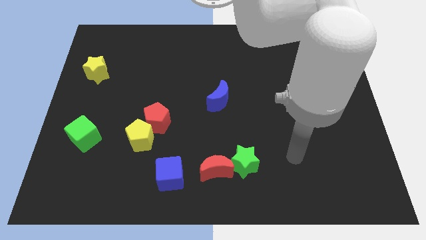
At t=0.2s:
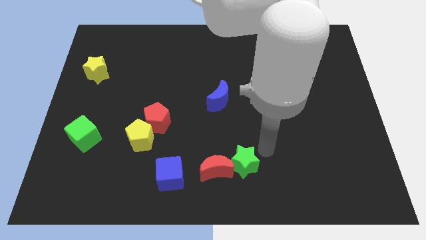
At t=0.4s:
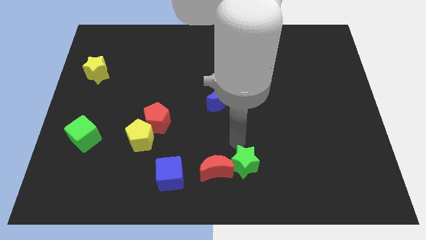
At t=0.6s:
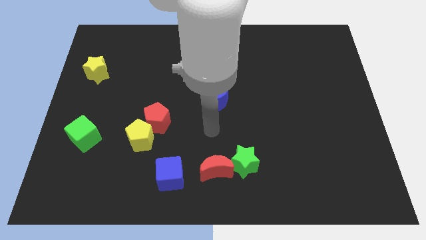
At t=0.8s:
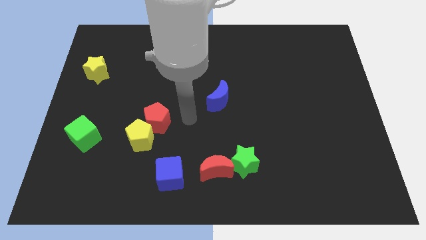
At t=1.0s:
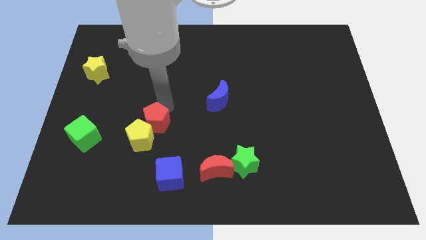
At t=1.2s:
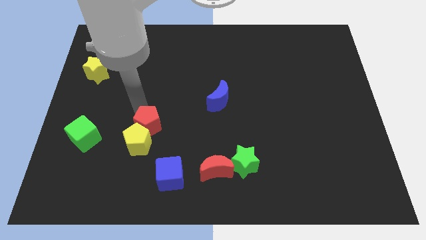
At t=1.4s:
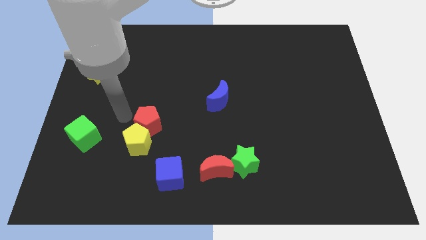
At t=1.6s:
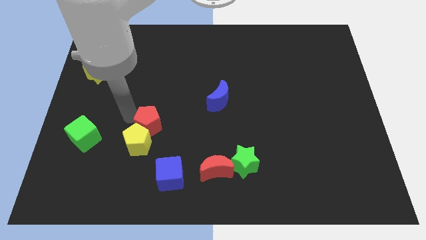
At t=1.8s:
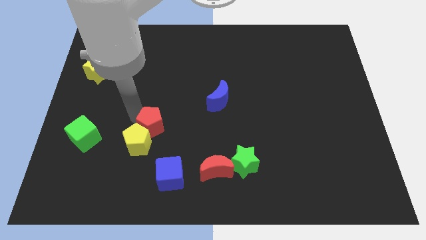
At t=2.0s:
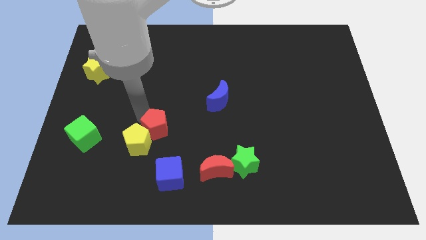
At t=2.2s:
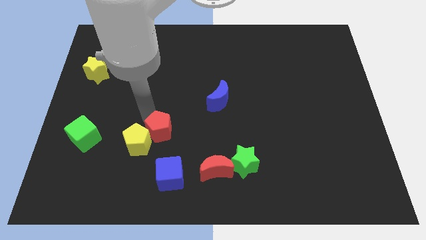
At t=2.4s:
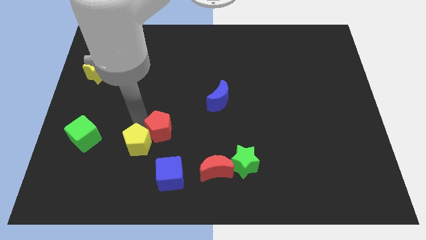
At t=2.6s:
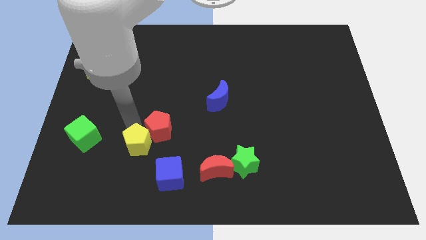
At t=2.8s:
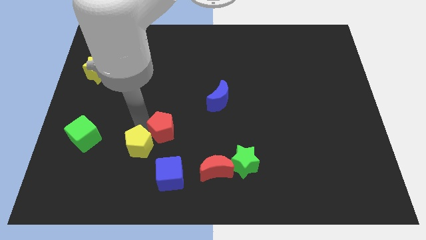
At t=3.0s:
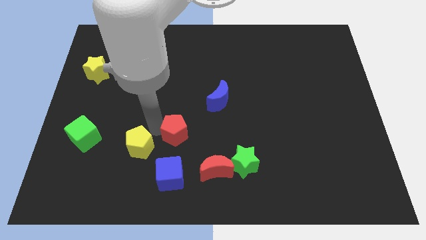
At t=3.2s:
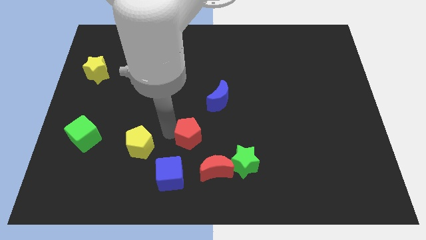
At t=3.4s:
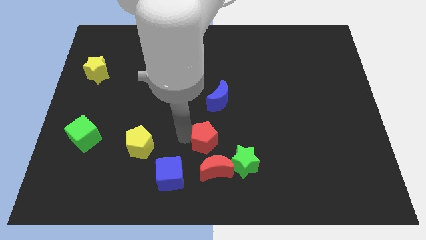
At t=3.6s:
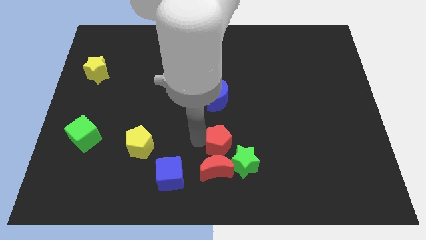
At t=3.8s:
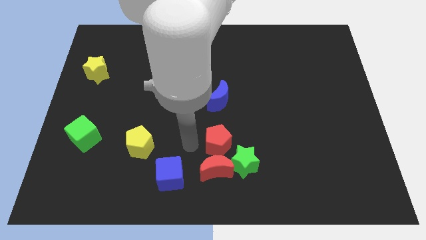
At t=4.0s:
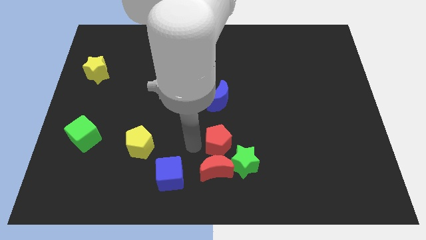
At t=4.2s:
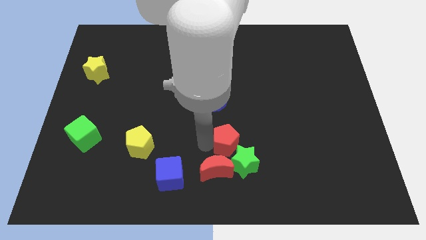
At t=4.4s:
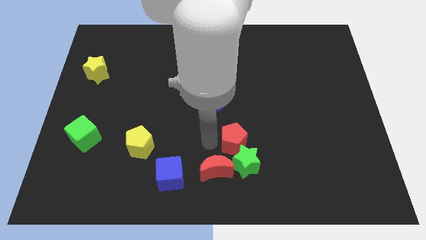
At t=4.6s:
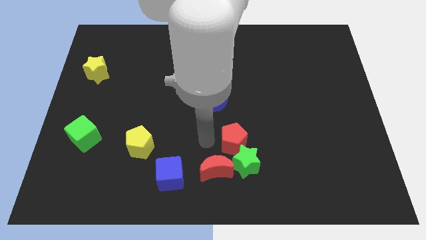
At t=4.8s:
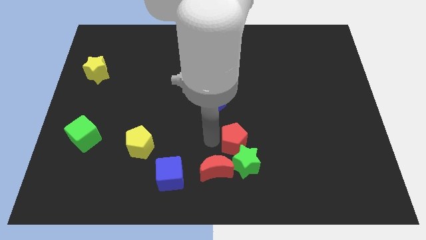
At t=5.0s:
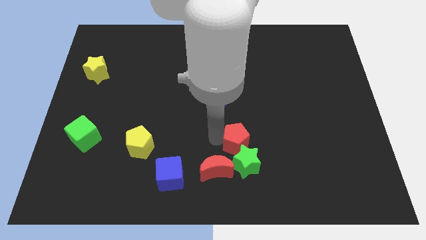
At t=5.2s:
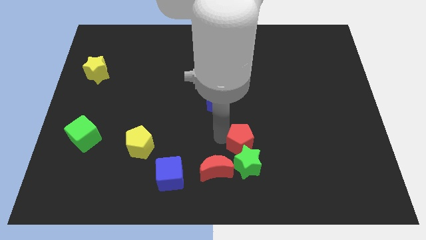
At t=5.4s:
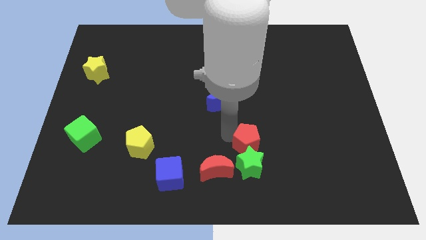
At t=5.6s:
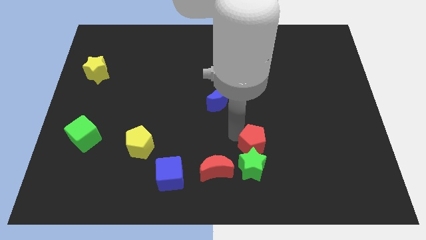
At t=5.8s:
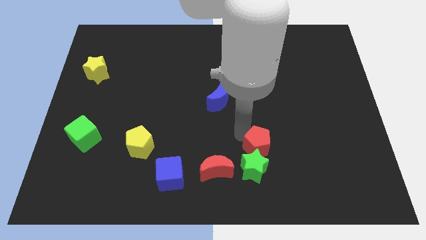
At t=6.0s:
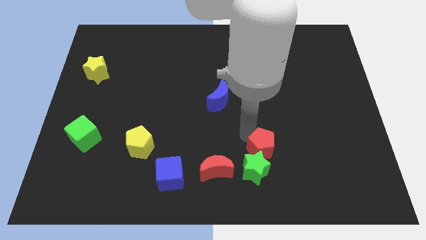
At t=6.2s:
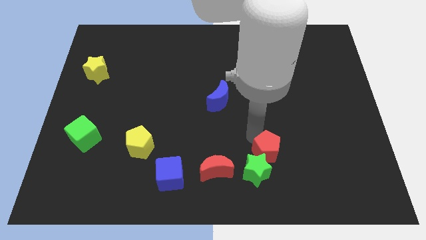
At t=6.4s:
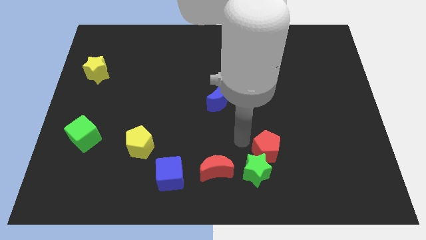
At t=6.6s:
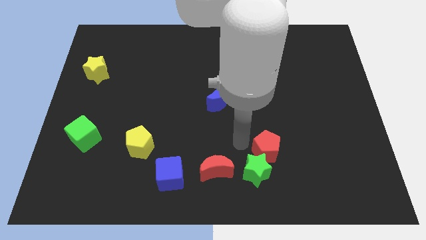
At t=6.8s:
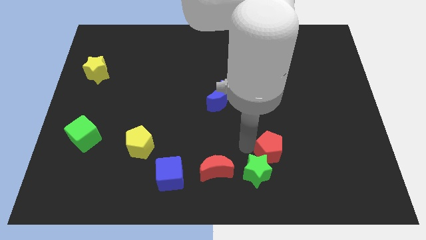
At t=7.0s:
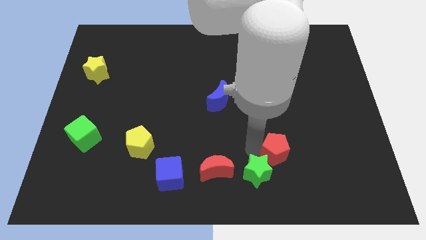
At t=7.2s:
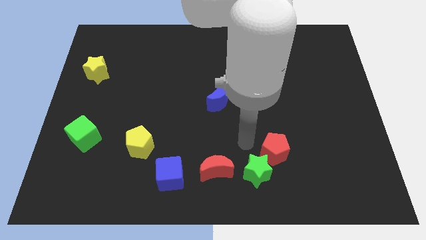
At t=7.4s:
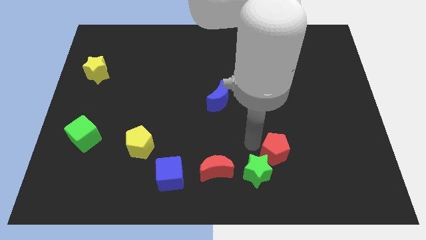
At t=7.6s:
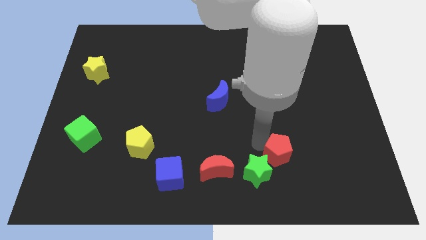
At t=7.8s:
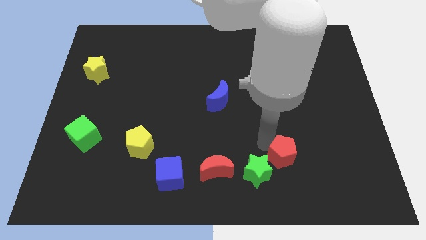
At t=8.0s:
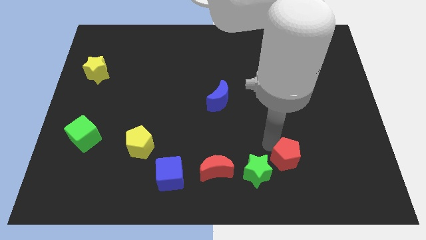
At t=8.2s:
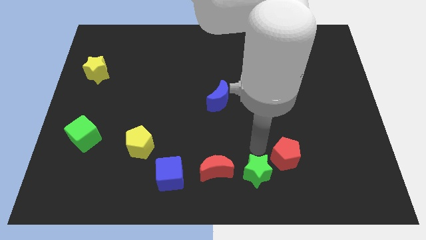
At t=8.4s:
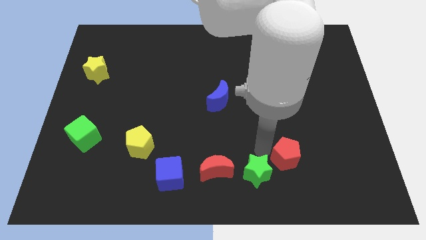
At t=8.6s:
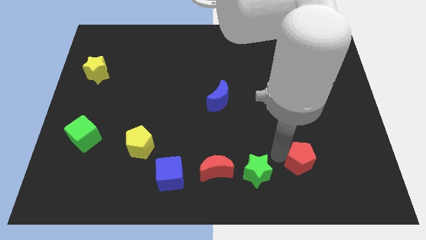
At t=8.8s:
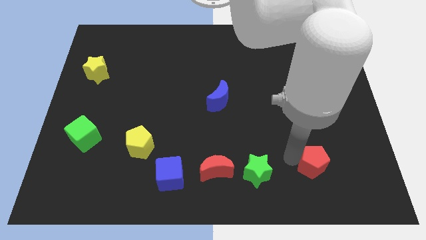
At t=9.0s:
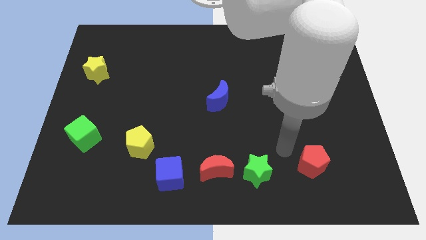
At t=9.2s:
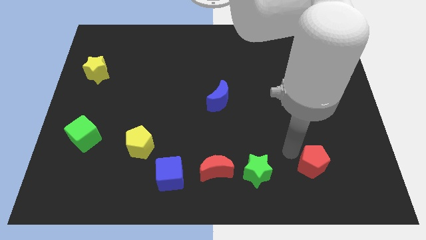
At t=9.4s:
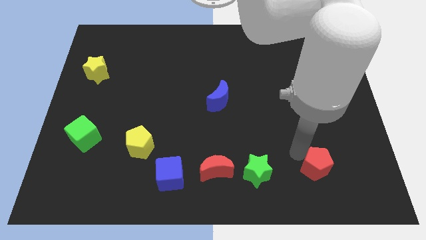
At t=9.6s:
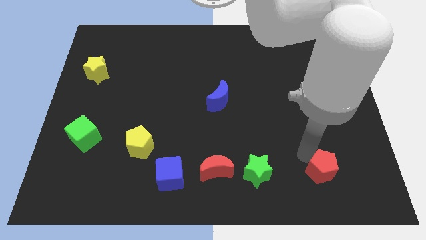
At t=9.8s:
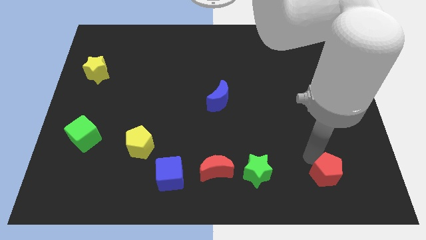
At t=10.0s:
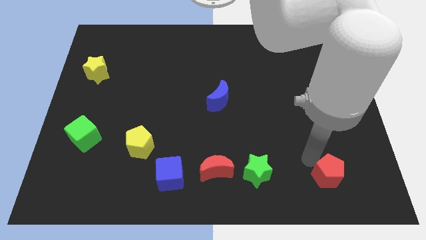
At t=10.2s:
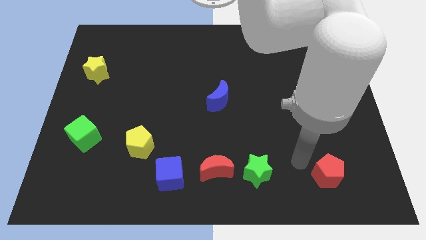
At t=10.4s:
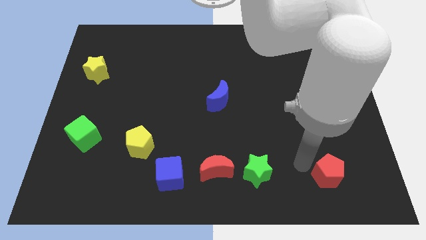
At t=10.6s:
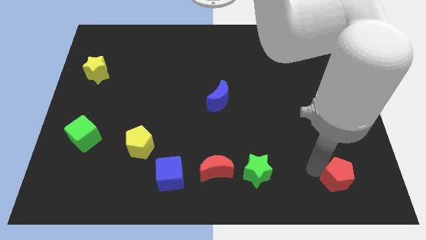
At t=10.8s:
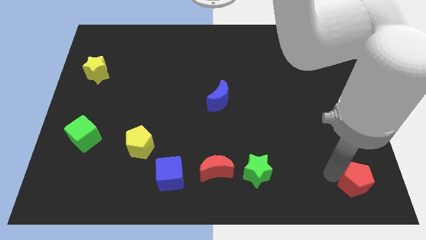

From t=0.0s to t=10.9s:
put the red pentagon to the lower right corner
